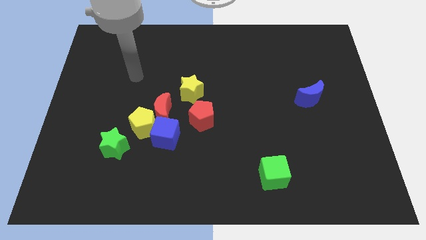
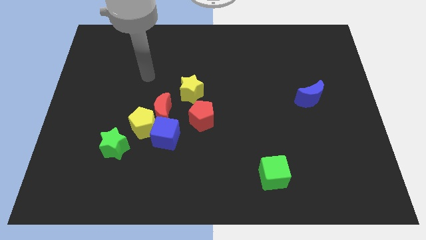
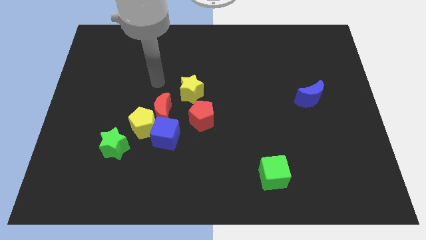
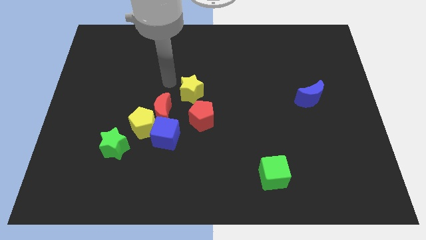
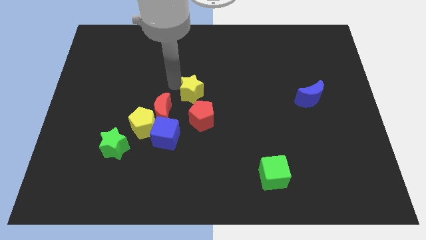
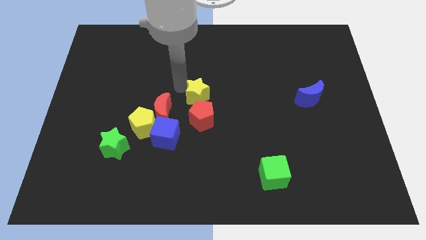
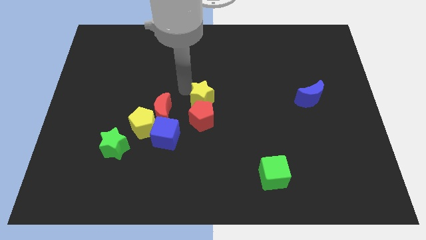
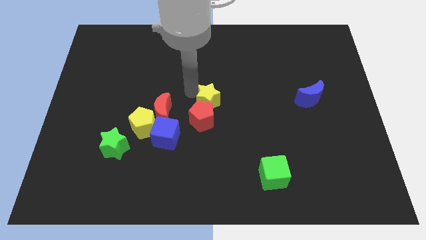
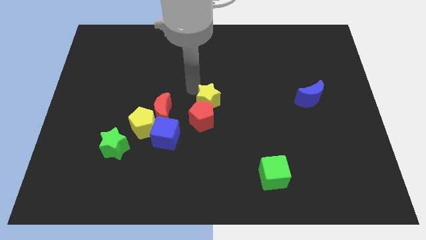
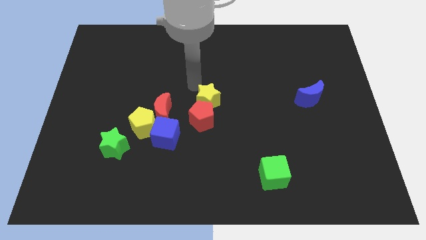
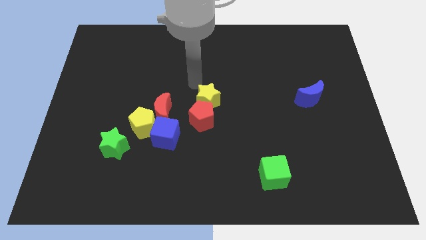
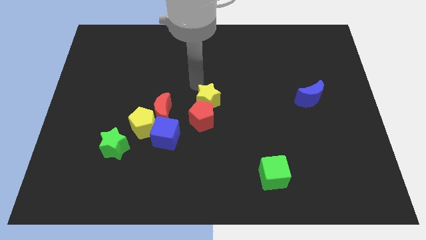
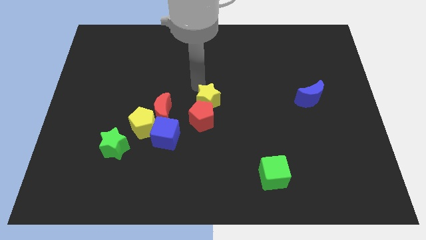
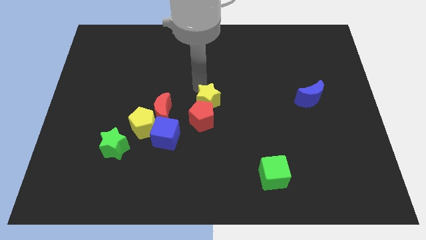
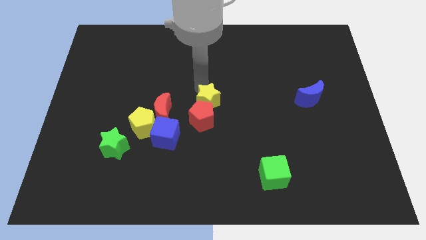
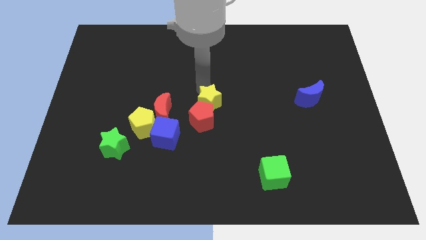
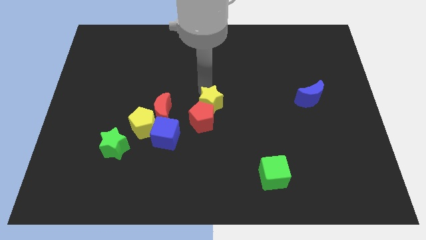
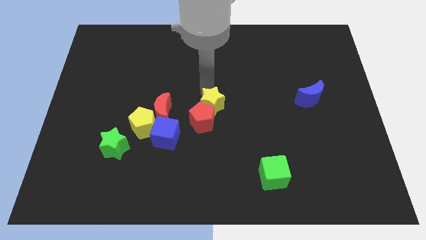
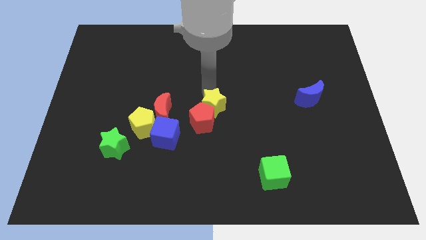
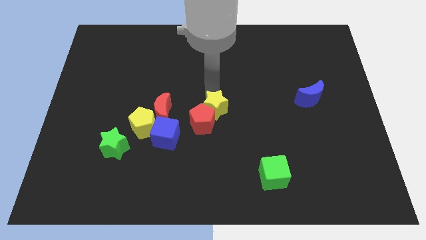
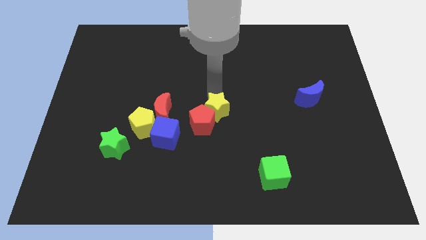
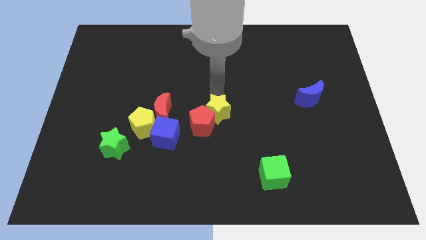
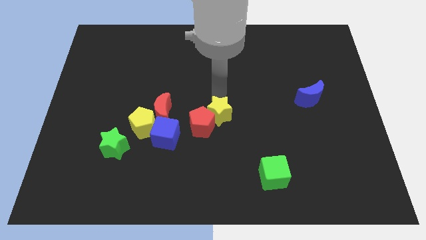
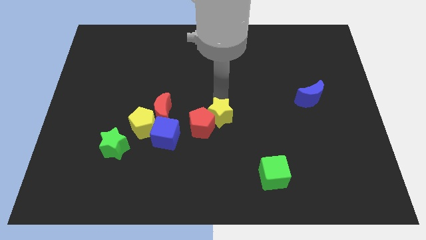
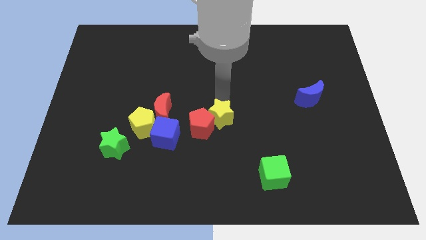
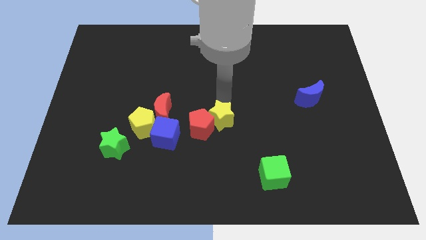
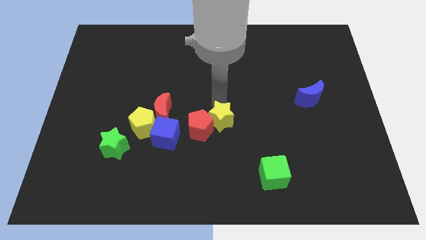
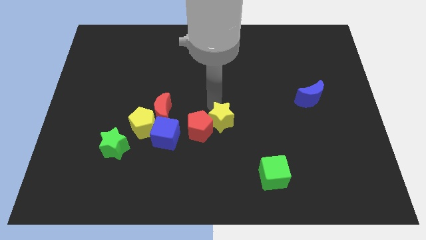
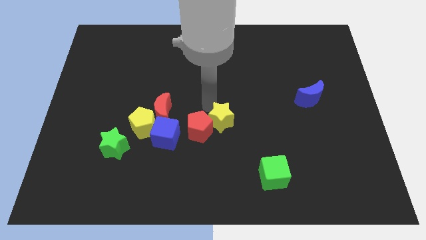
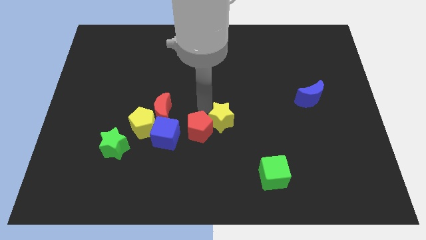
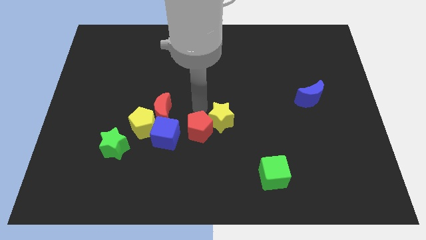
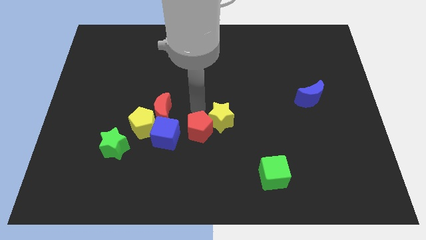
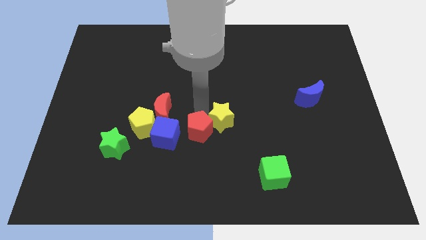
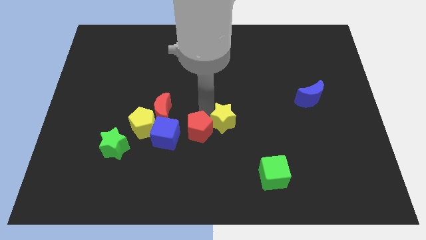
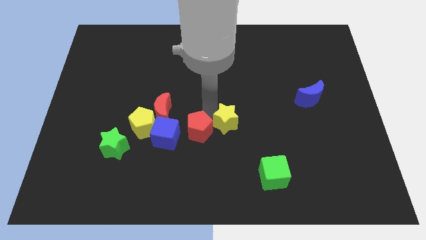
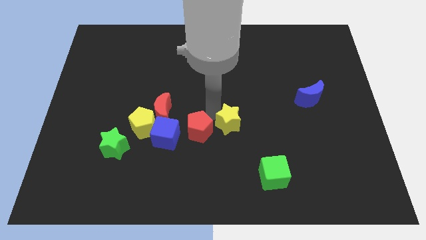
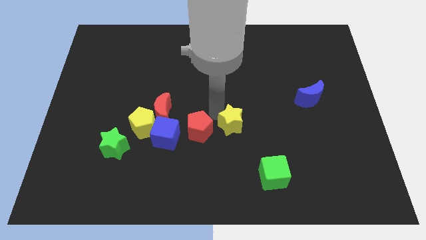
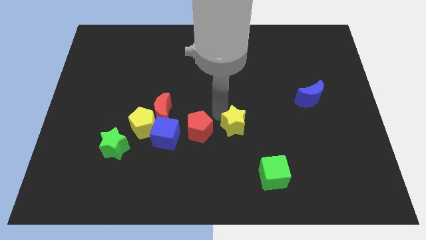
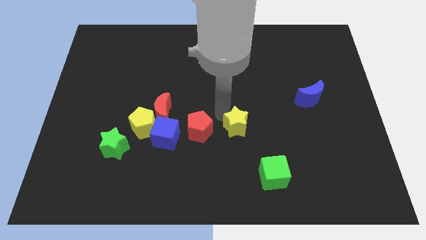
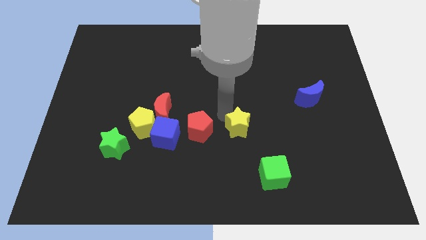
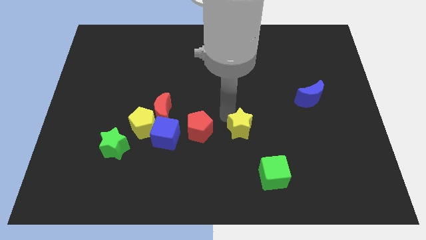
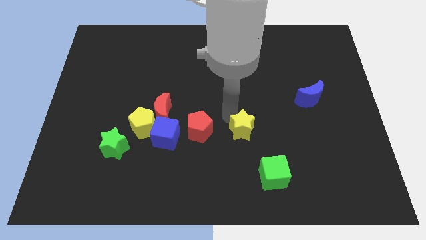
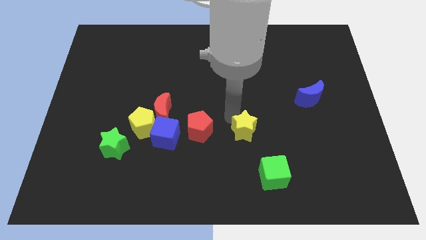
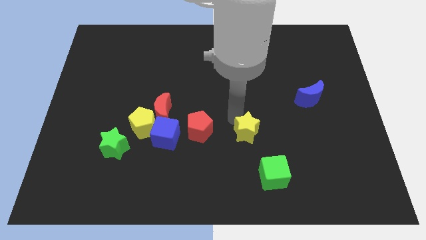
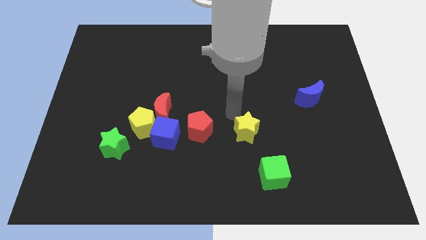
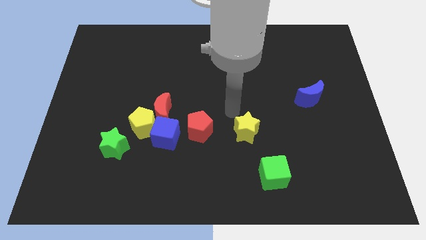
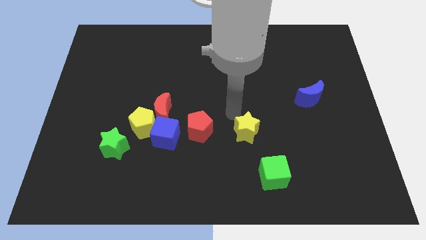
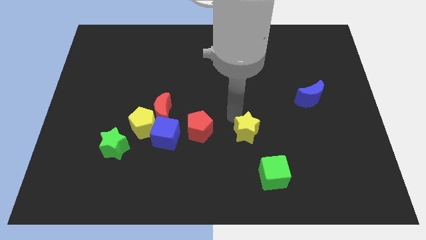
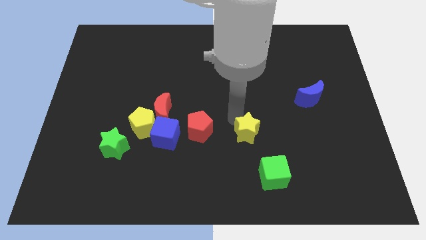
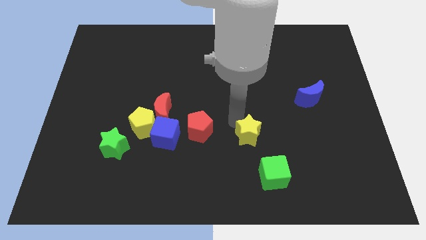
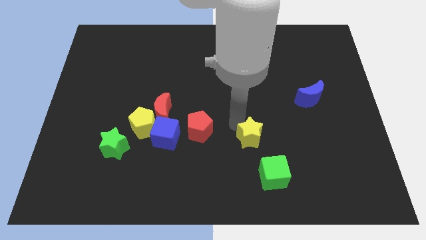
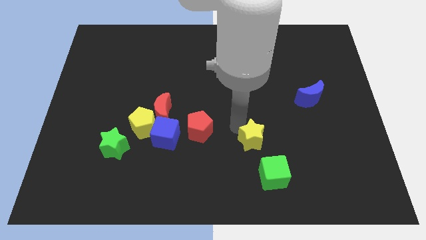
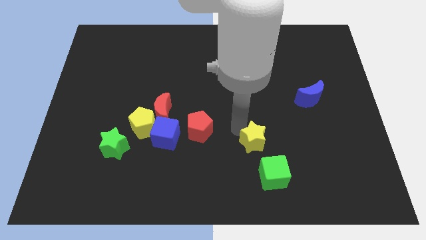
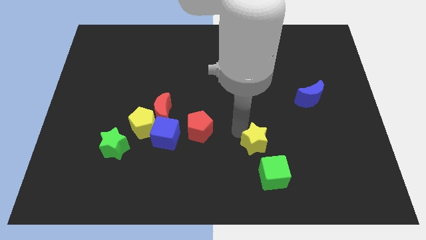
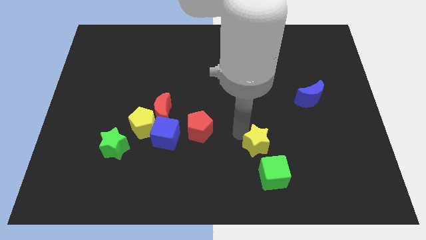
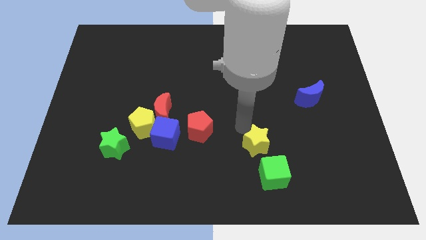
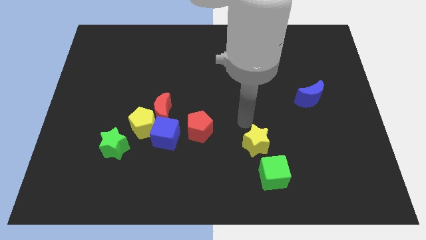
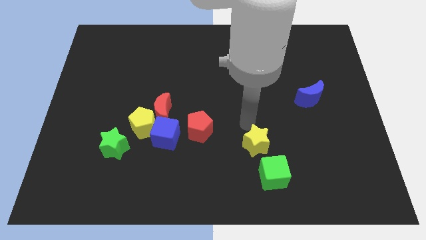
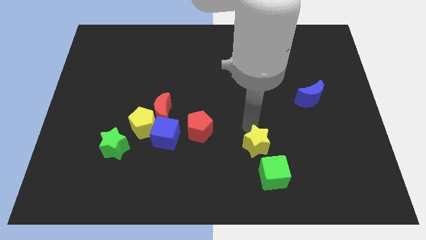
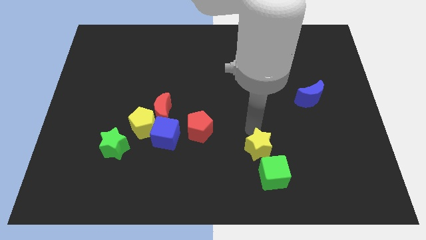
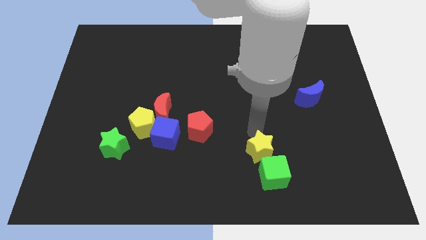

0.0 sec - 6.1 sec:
put the yellow star to the green cube

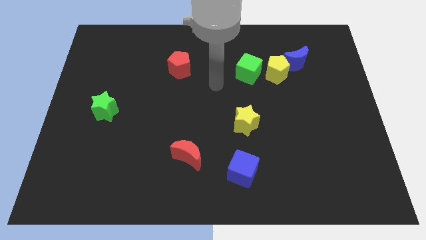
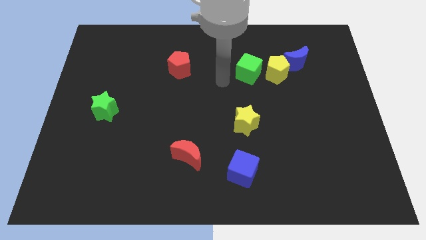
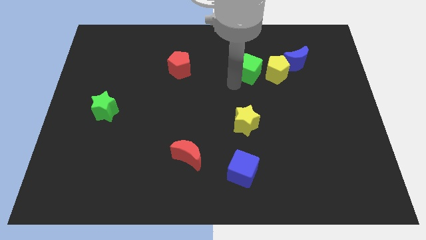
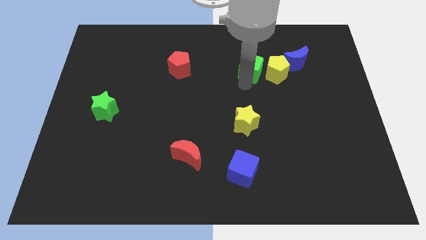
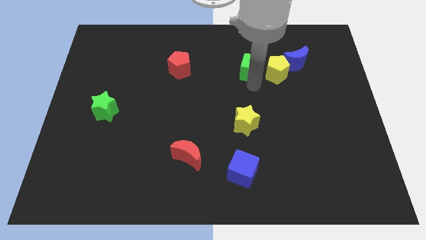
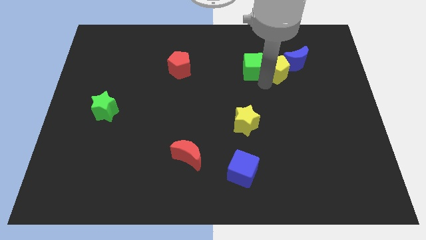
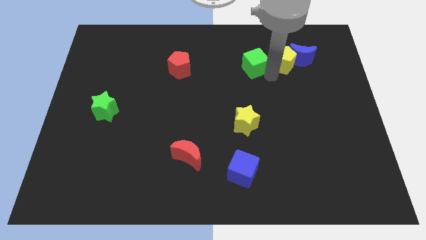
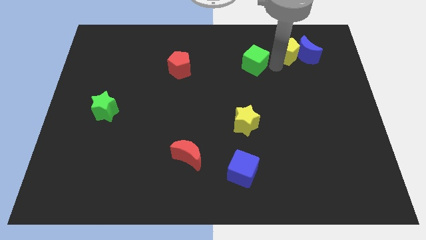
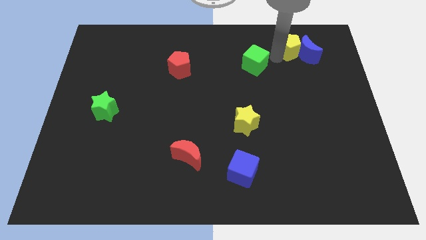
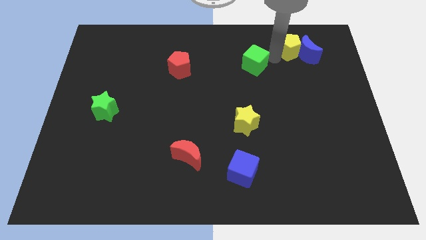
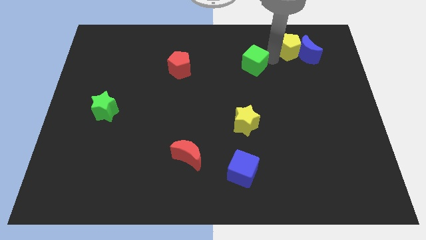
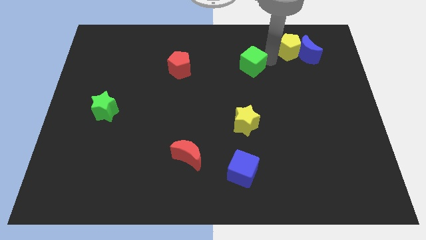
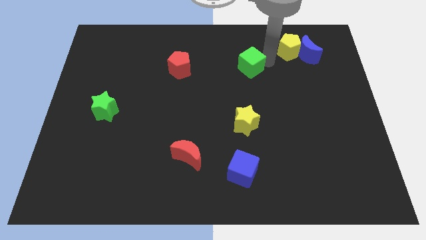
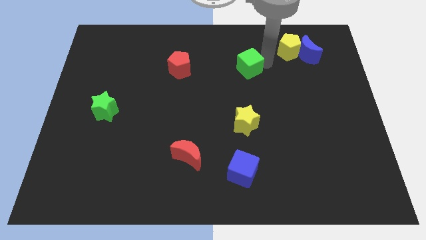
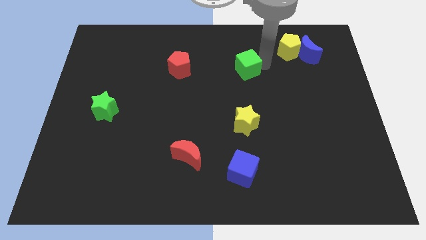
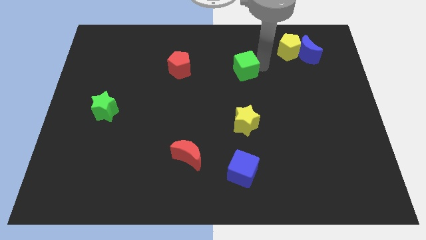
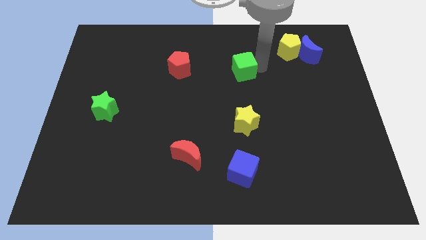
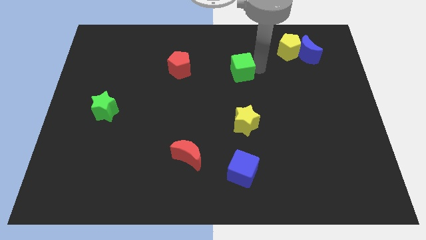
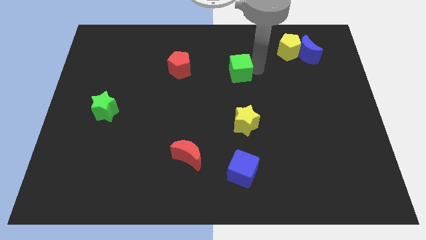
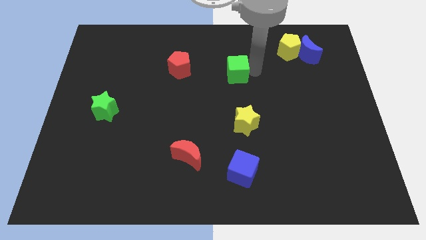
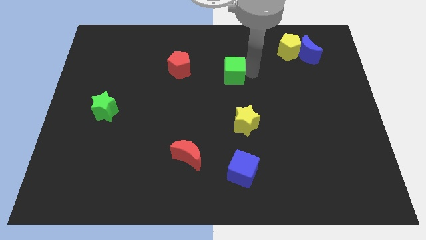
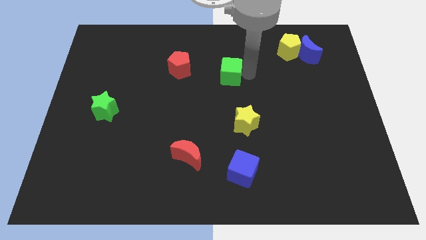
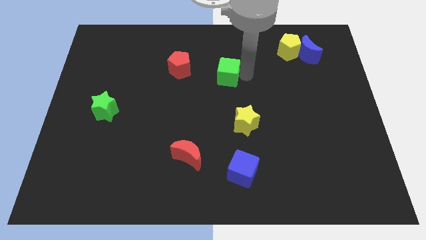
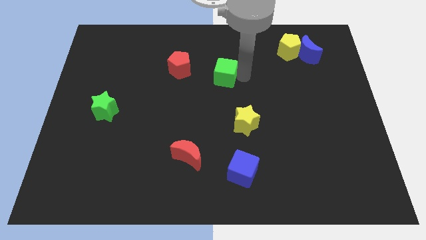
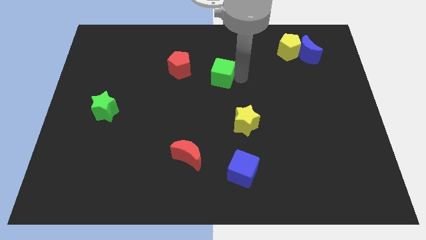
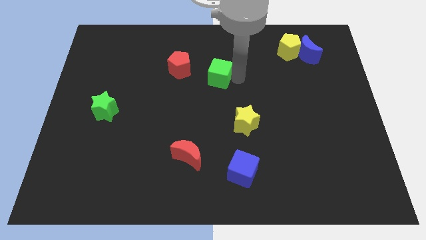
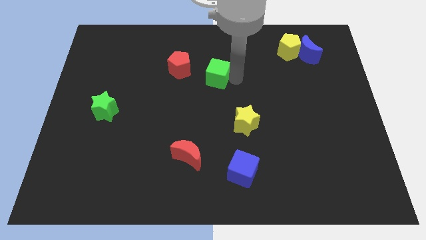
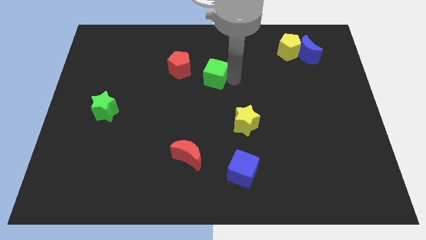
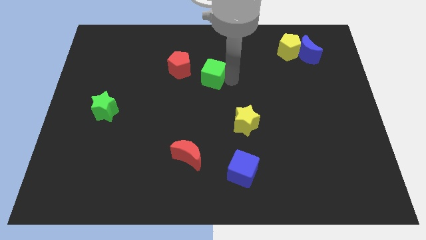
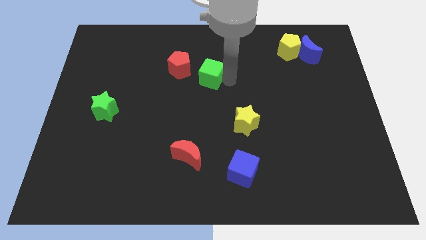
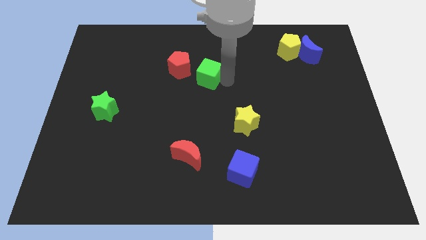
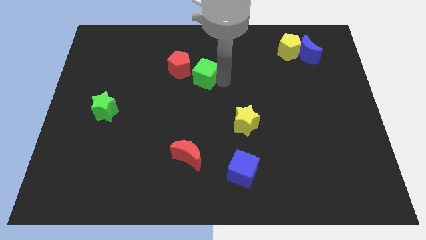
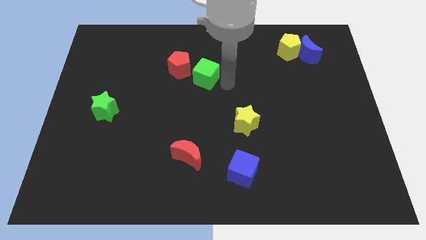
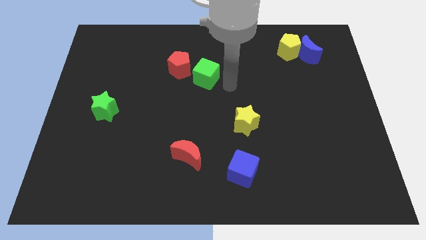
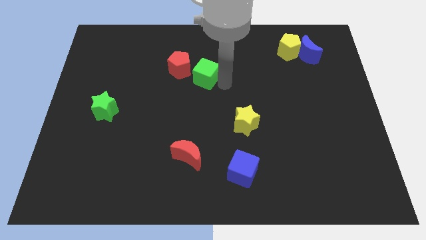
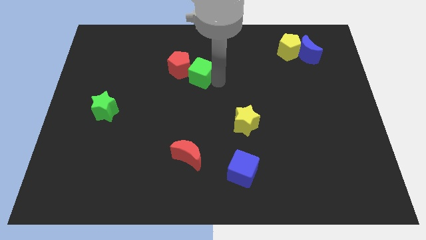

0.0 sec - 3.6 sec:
push the green cube towards the red pentagon
